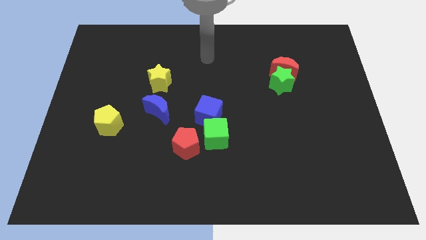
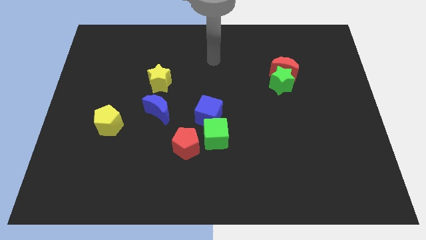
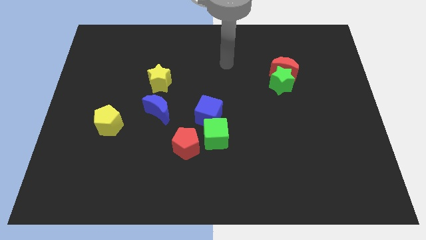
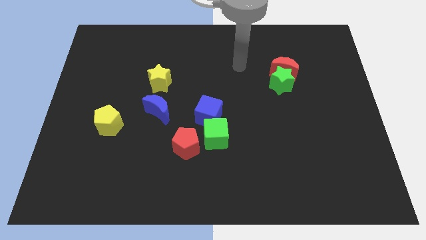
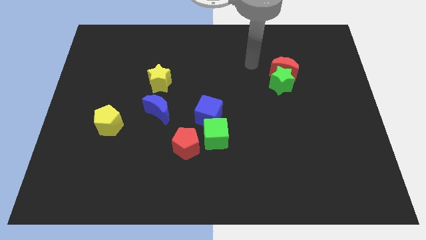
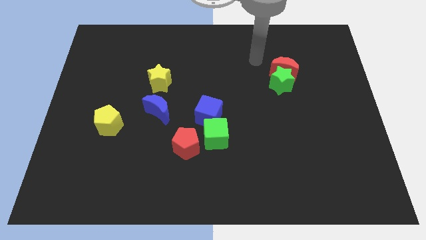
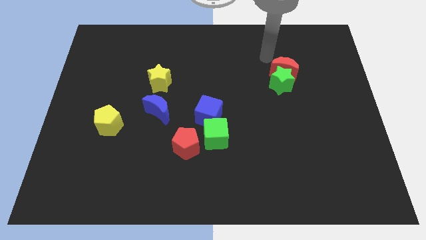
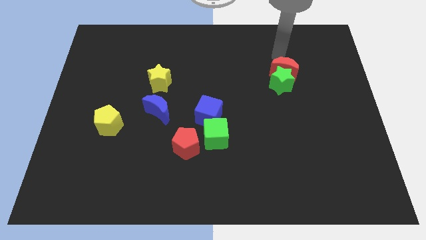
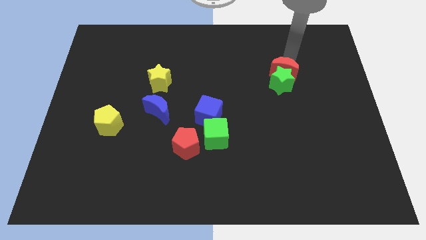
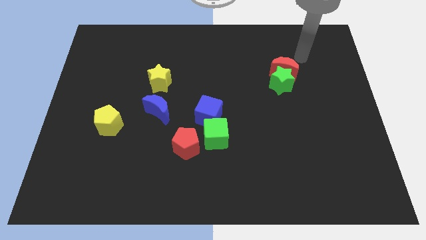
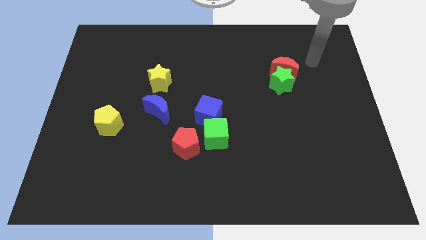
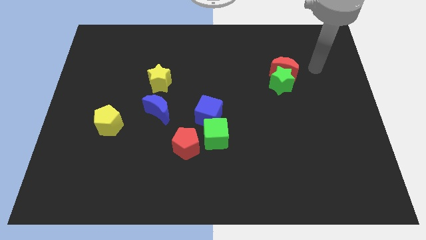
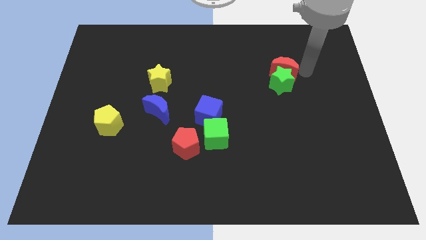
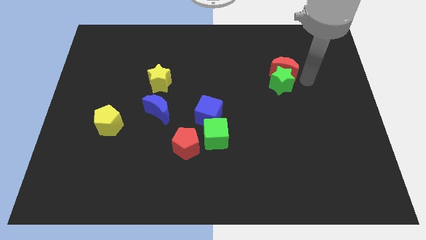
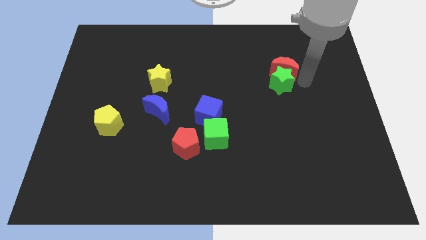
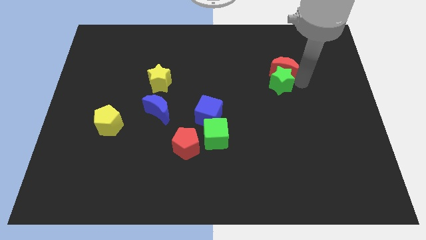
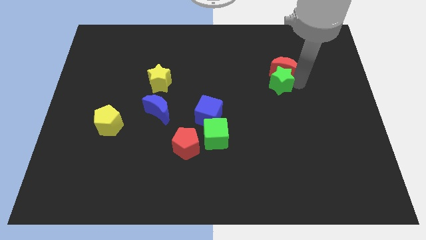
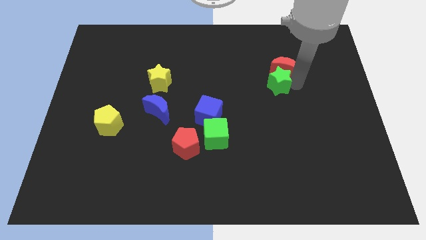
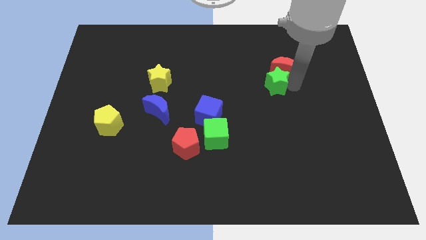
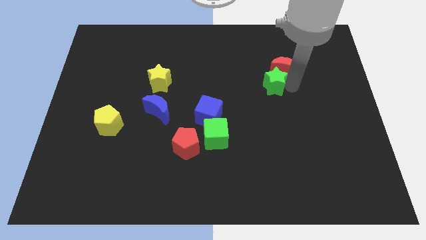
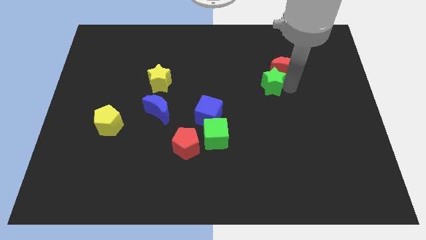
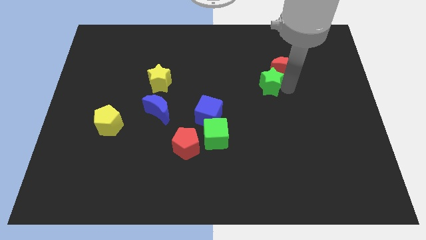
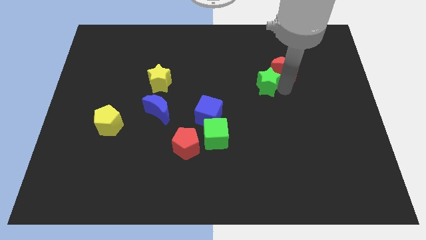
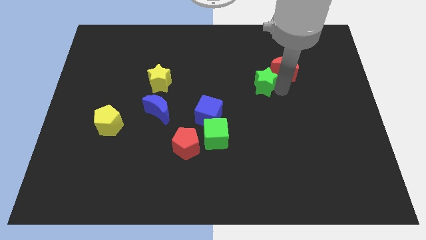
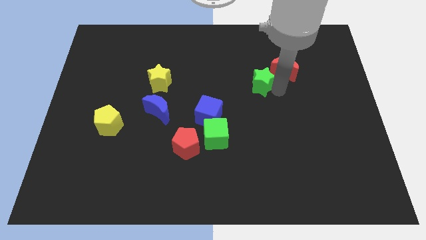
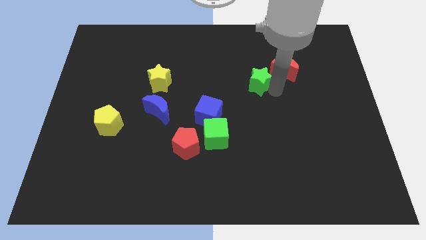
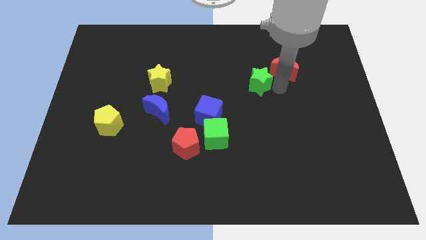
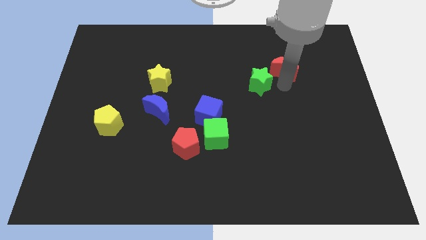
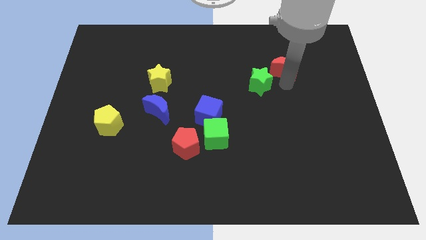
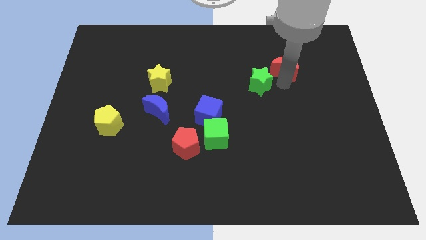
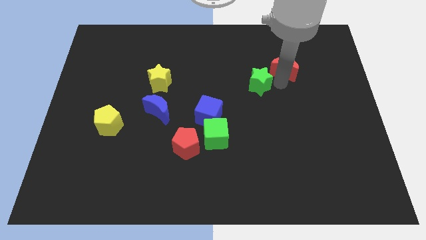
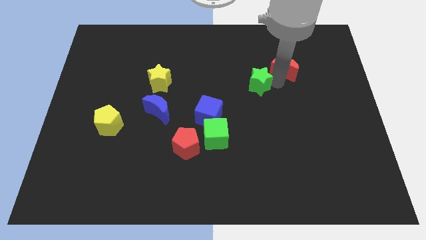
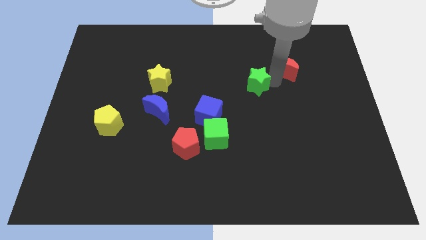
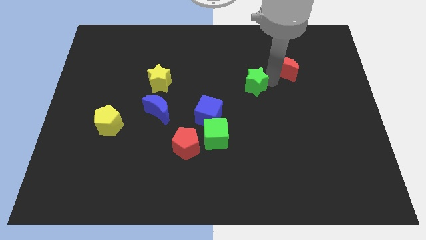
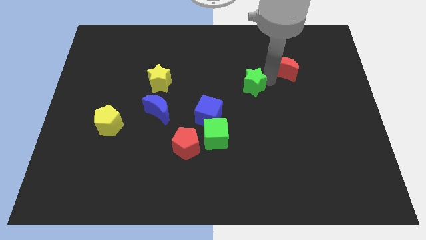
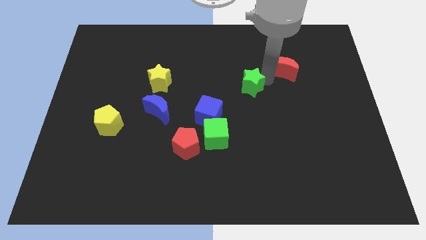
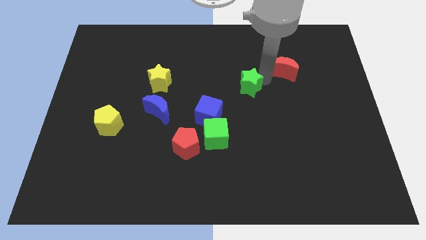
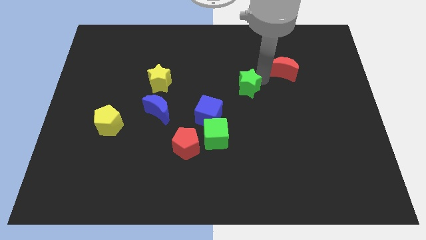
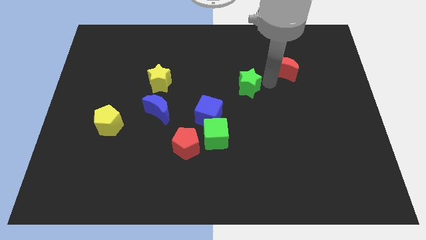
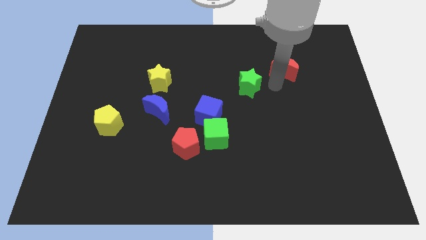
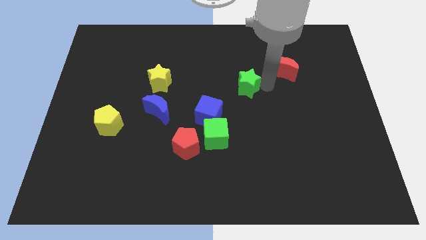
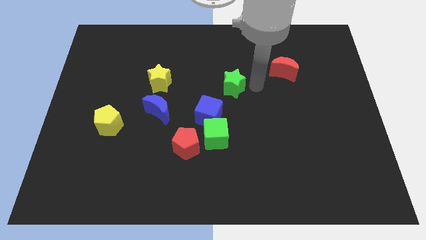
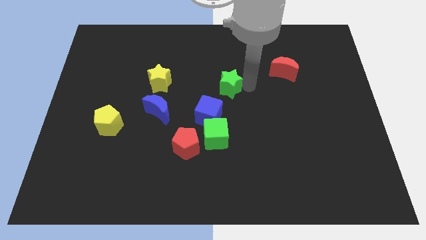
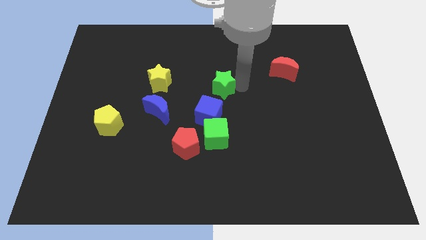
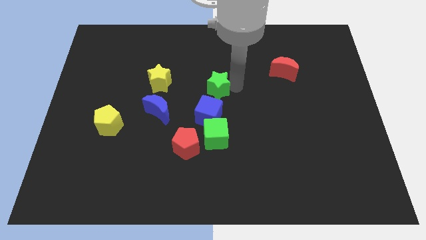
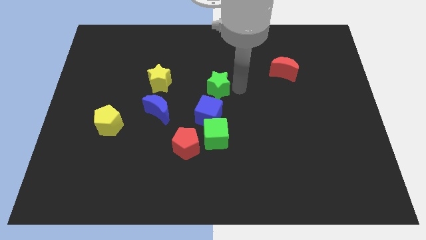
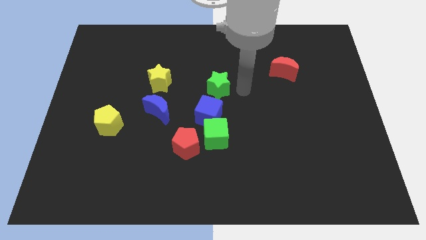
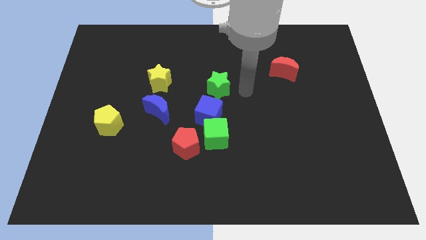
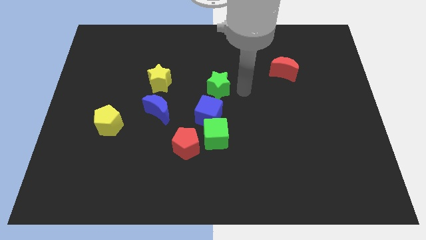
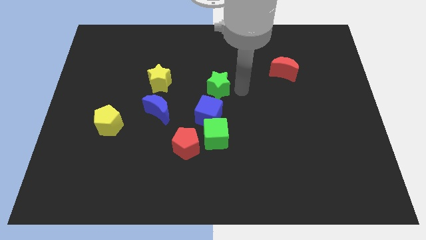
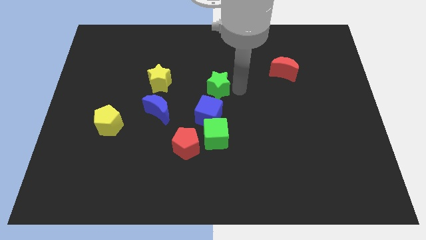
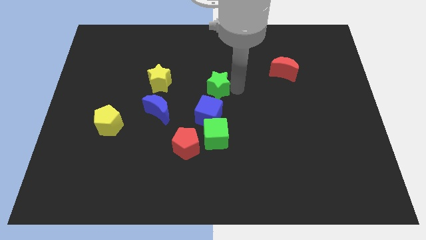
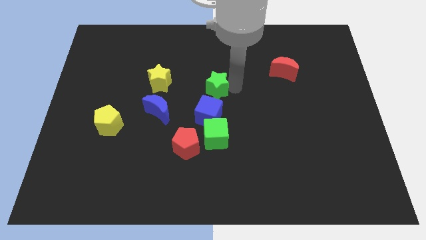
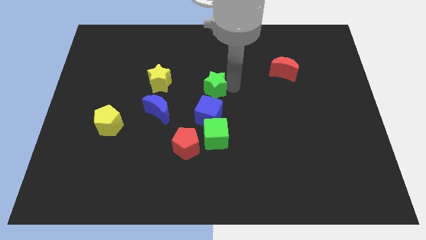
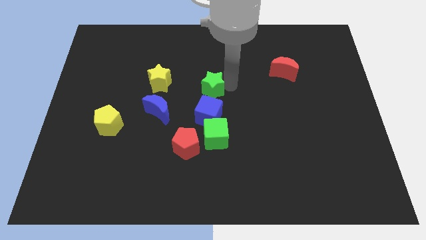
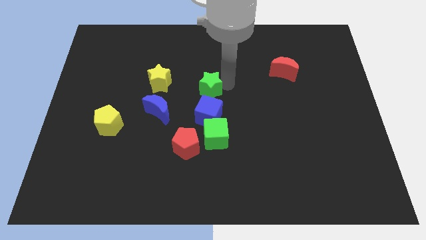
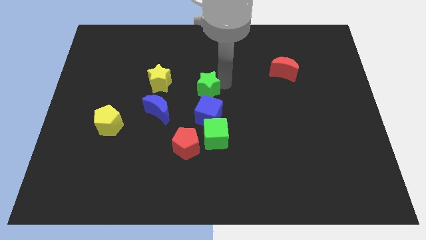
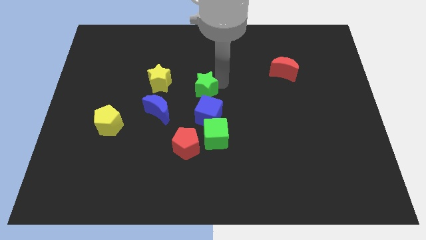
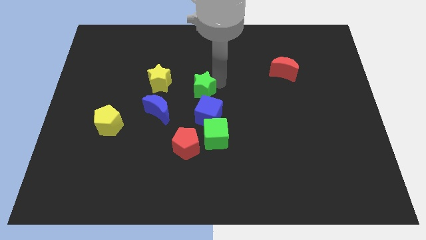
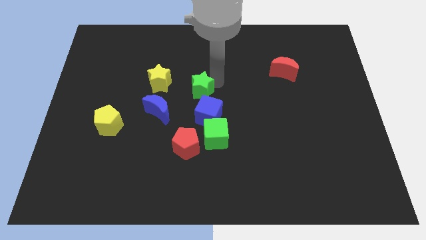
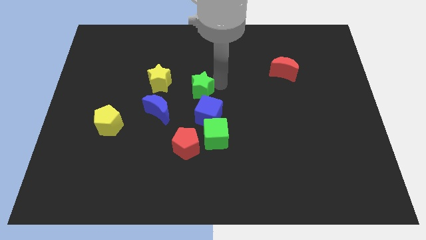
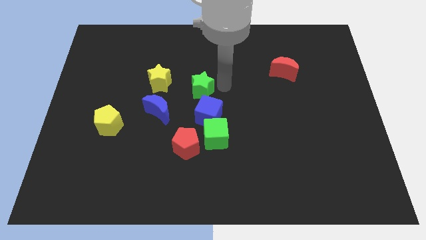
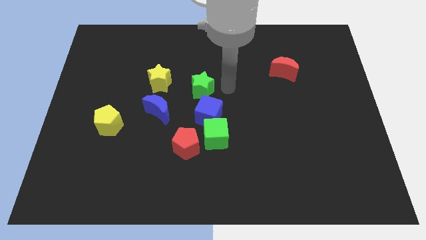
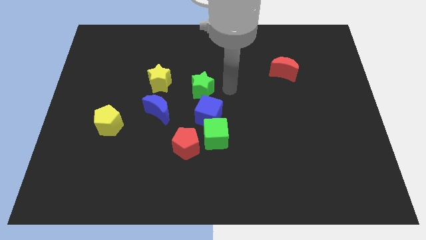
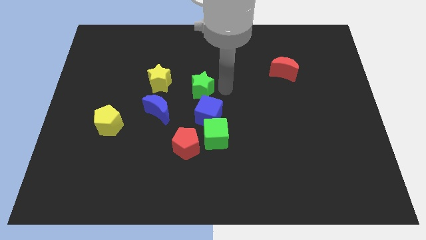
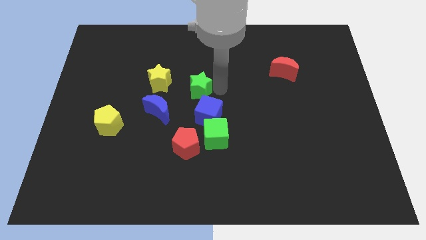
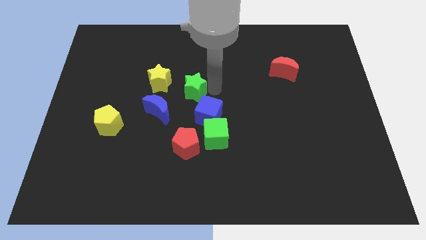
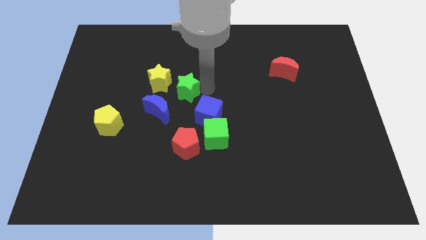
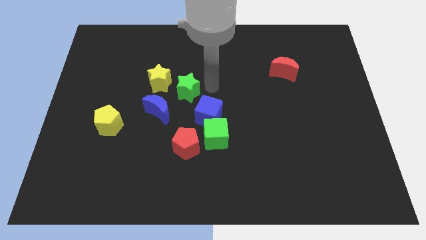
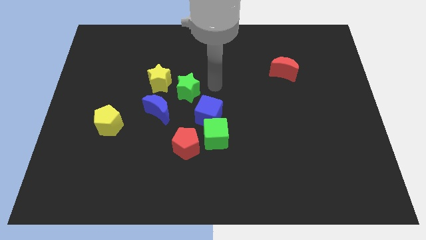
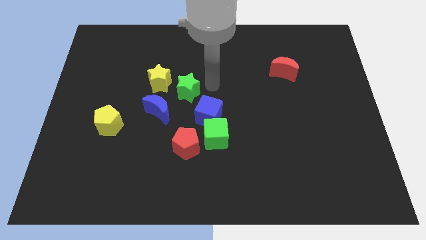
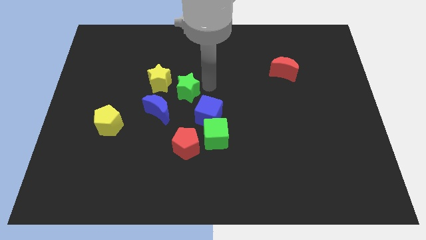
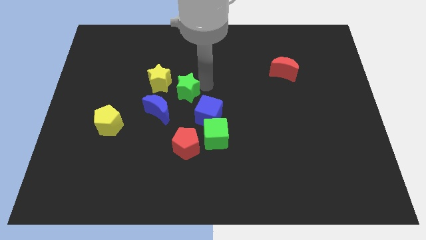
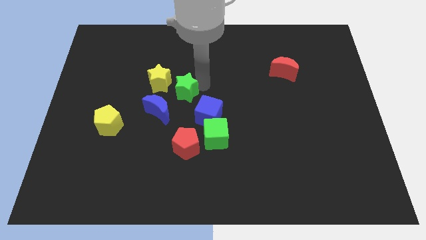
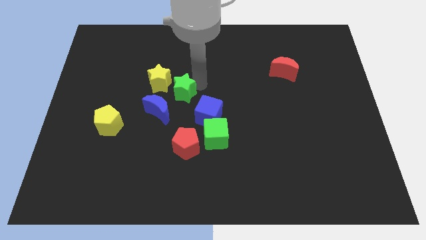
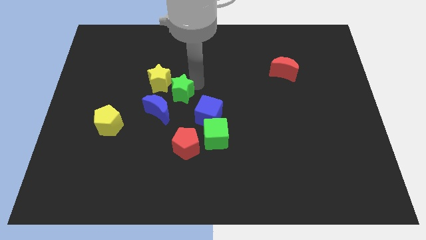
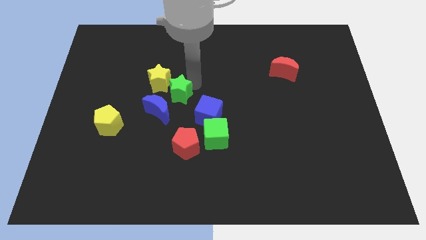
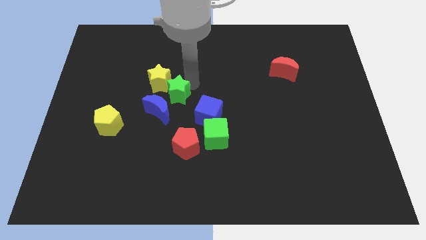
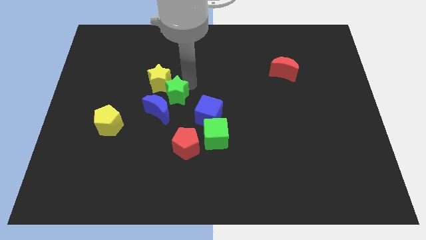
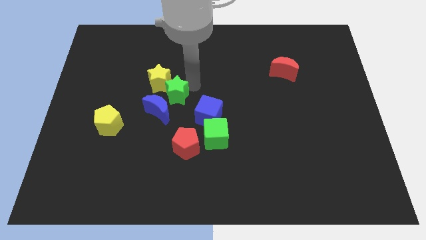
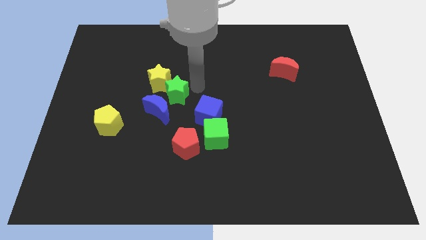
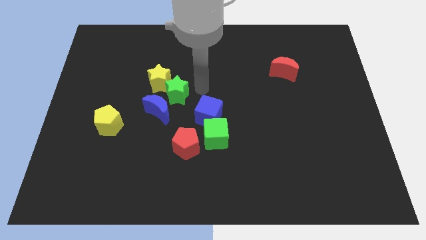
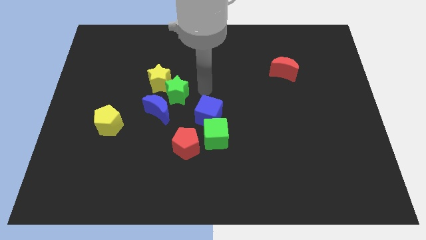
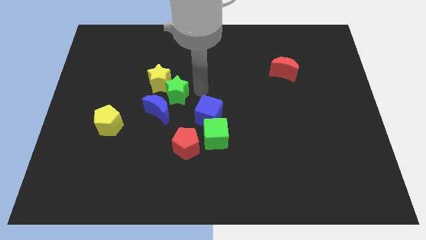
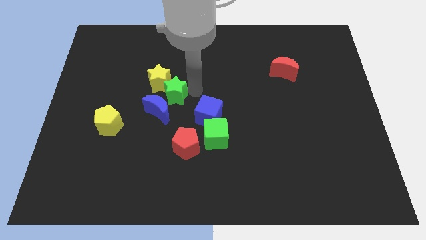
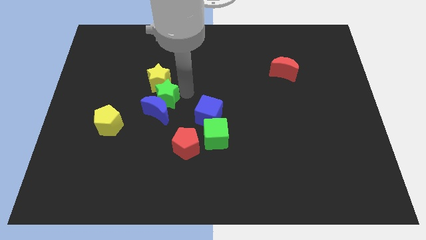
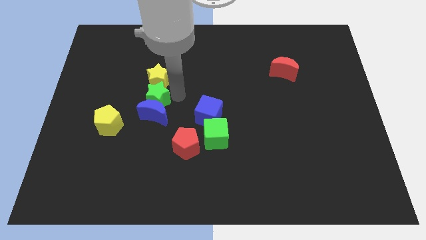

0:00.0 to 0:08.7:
slide the green star to the bottom left side of the yellow star
